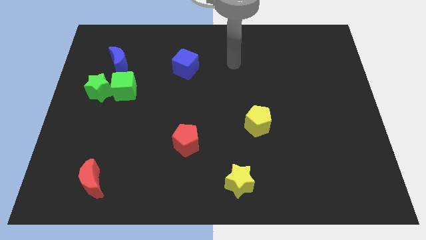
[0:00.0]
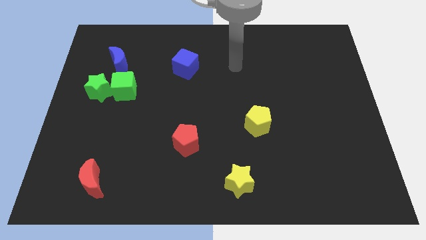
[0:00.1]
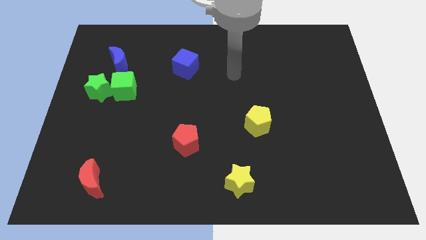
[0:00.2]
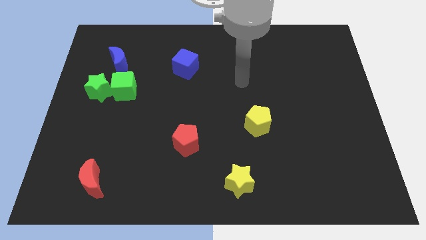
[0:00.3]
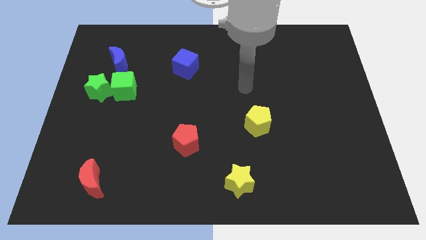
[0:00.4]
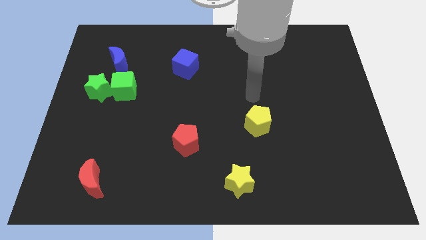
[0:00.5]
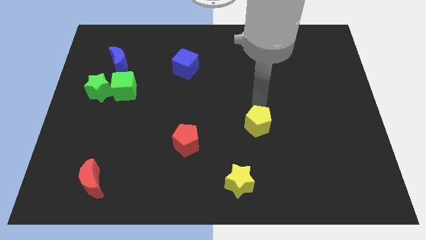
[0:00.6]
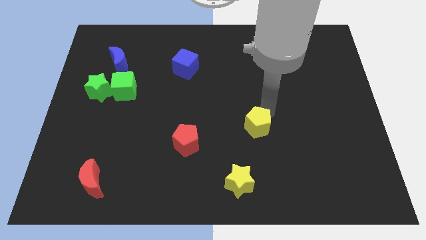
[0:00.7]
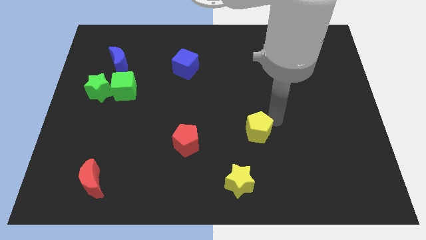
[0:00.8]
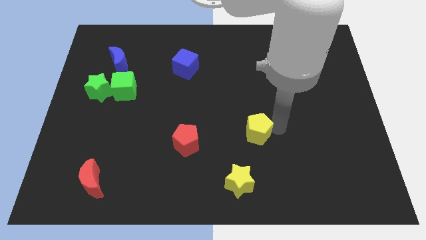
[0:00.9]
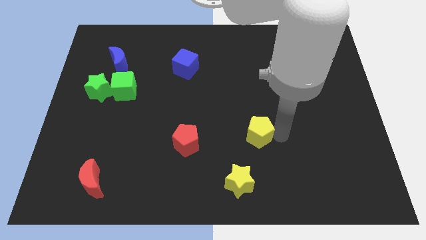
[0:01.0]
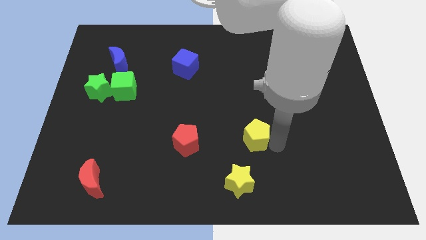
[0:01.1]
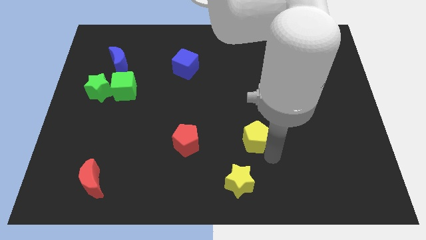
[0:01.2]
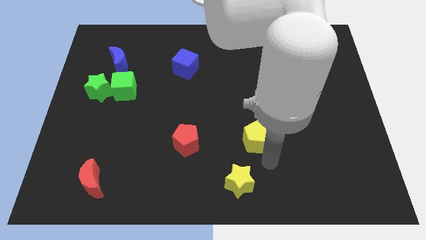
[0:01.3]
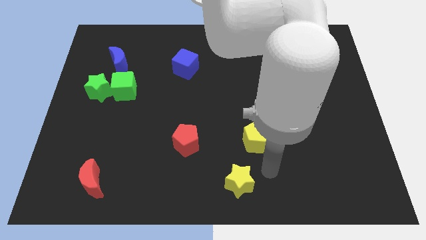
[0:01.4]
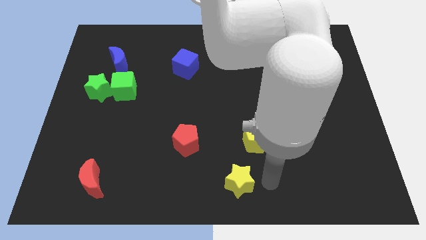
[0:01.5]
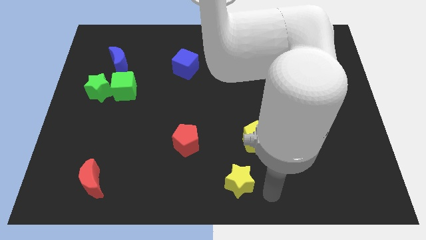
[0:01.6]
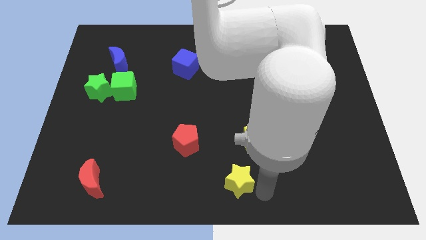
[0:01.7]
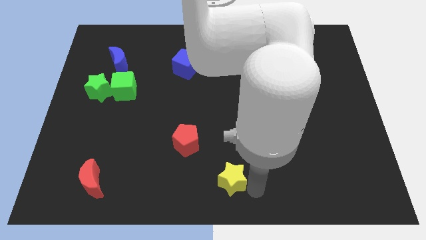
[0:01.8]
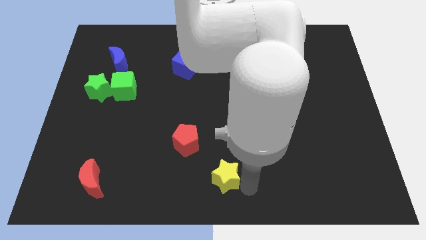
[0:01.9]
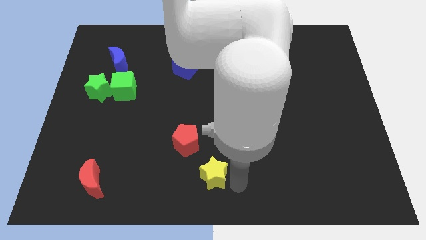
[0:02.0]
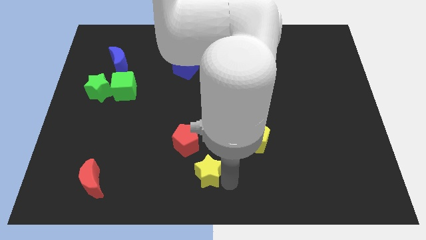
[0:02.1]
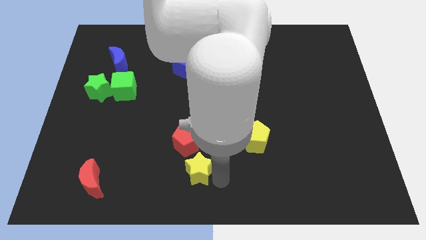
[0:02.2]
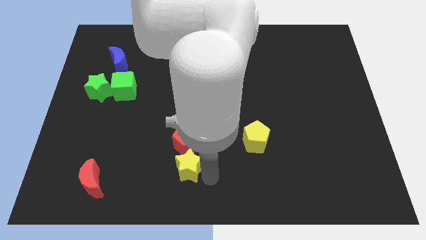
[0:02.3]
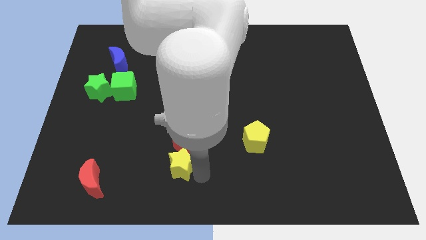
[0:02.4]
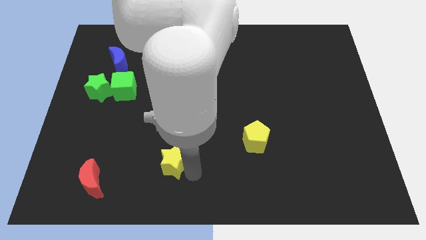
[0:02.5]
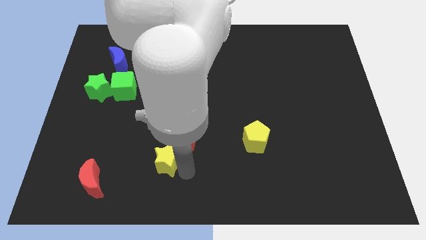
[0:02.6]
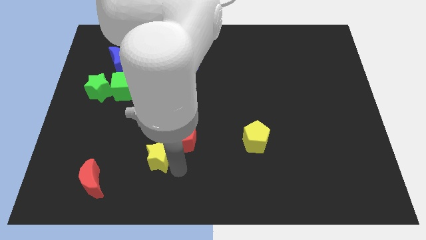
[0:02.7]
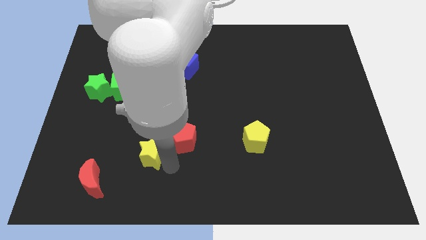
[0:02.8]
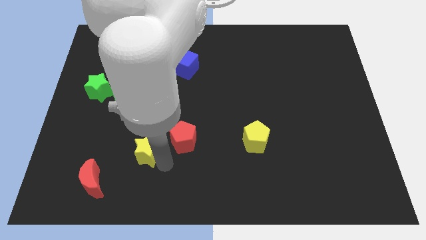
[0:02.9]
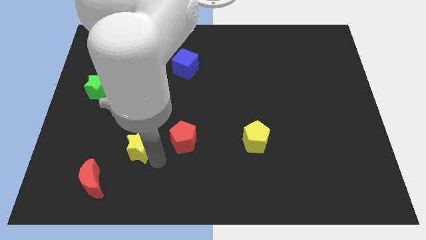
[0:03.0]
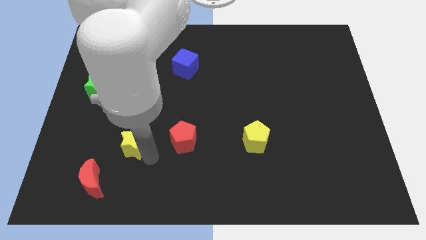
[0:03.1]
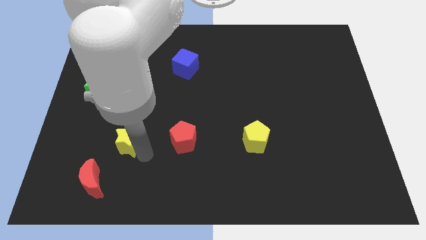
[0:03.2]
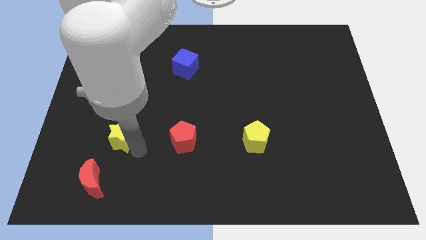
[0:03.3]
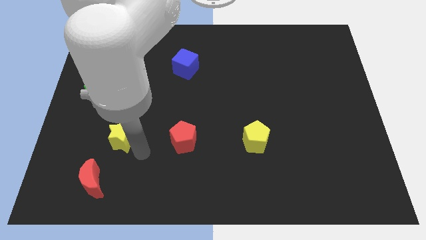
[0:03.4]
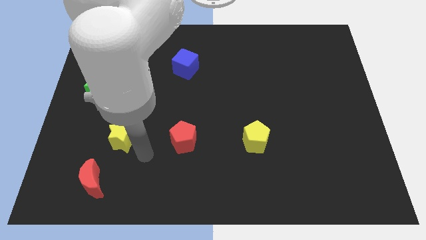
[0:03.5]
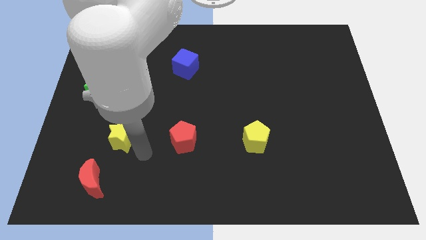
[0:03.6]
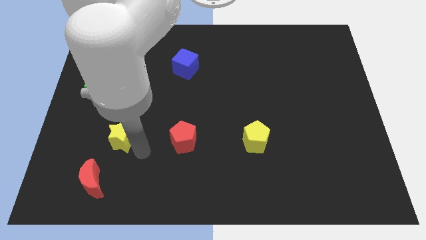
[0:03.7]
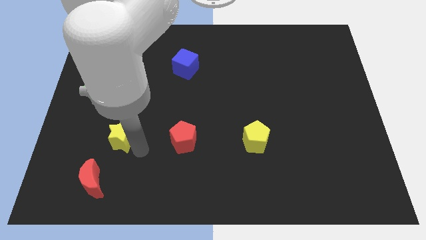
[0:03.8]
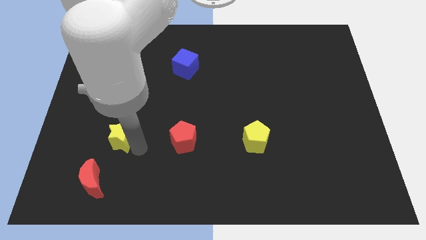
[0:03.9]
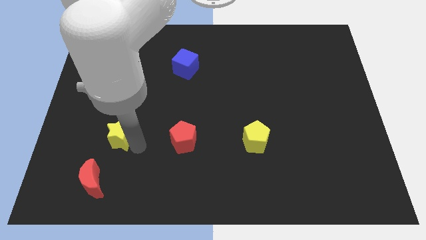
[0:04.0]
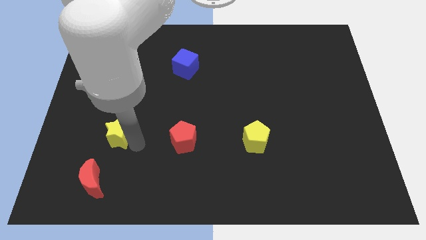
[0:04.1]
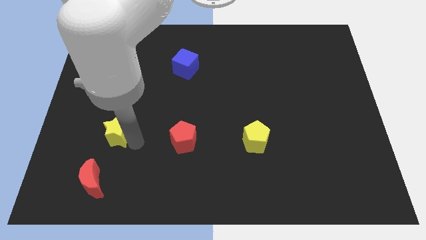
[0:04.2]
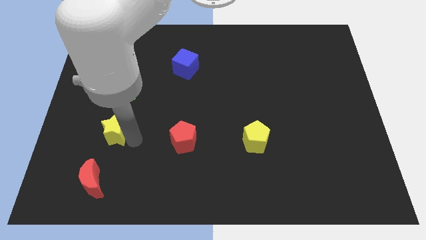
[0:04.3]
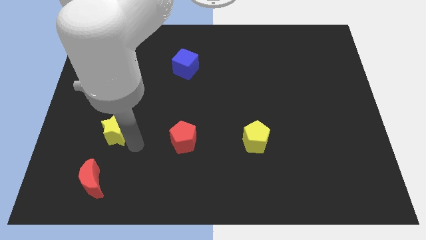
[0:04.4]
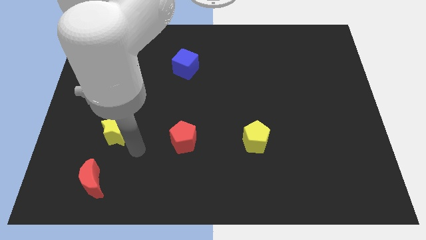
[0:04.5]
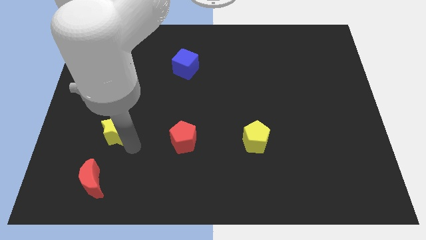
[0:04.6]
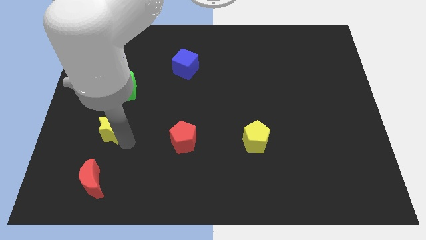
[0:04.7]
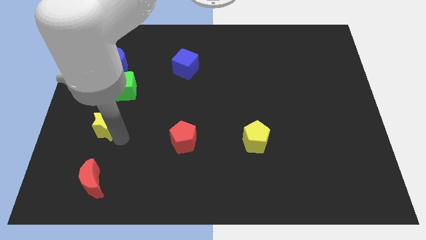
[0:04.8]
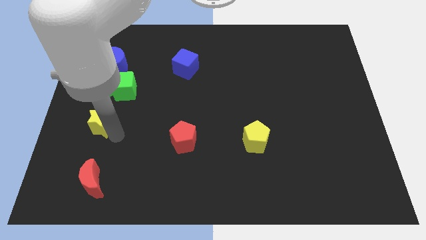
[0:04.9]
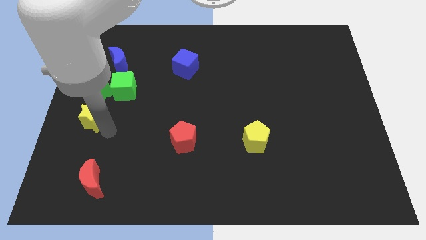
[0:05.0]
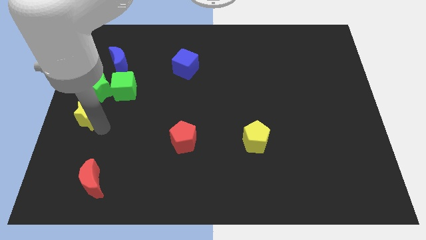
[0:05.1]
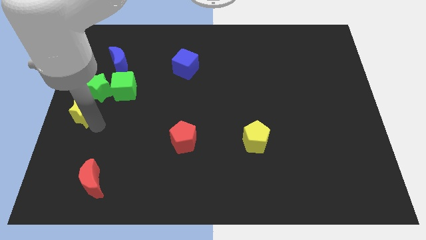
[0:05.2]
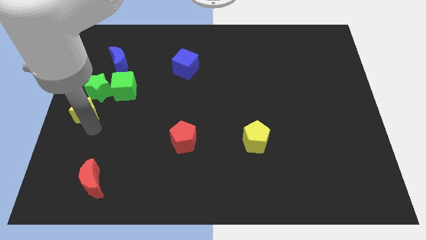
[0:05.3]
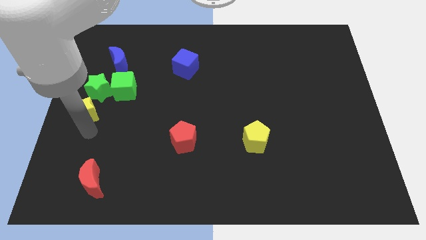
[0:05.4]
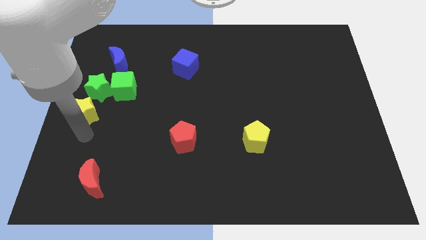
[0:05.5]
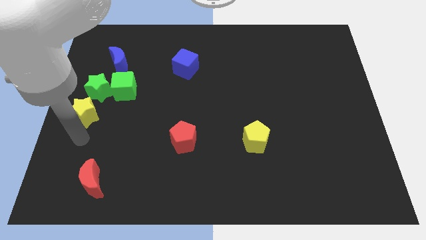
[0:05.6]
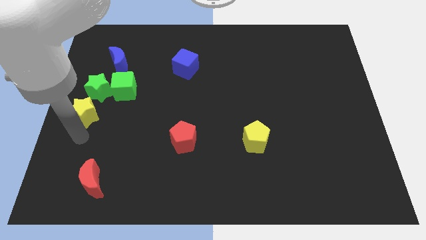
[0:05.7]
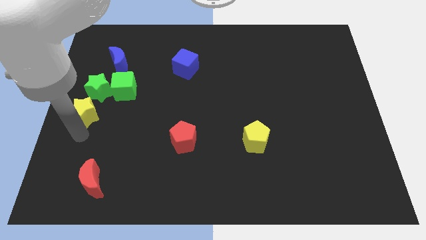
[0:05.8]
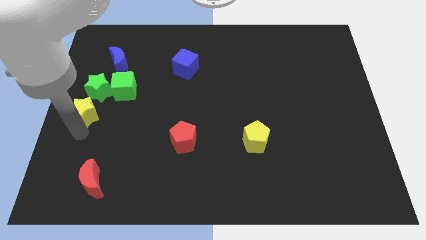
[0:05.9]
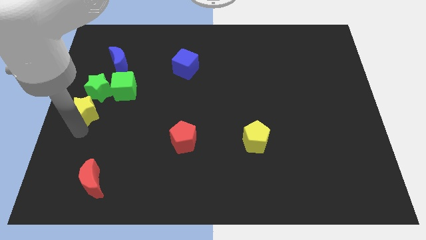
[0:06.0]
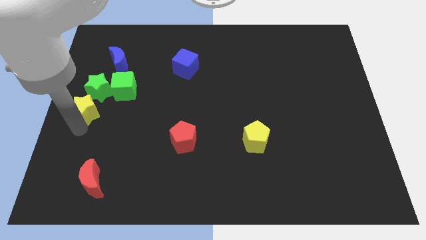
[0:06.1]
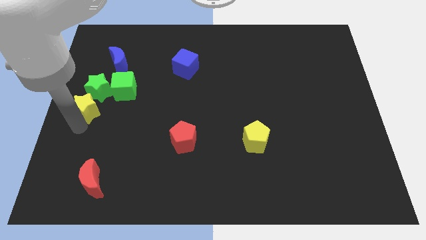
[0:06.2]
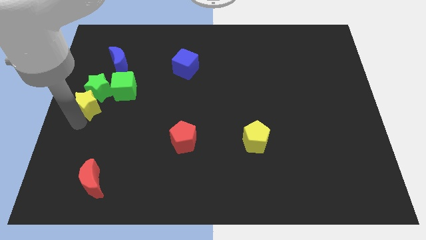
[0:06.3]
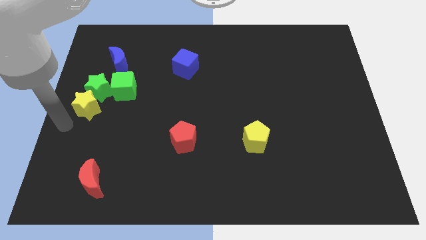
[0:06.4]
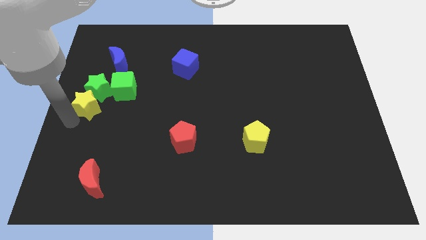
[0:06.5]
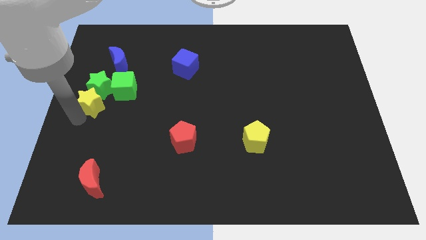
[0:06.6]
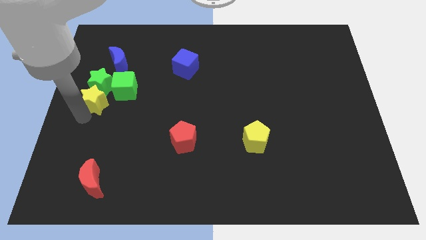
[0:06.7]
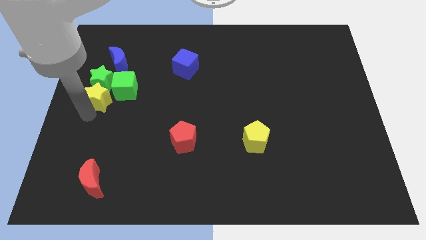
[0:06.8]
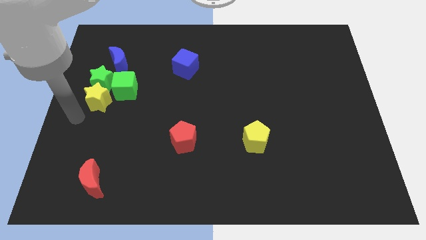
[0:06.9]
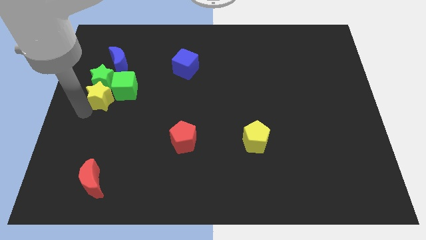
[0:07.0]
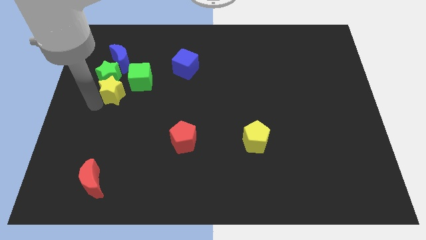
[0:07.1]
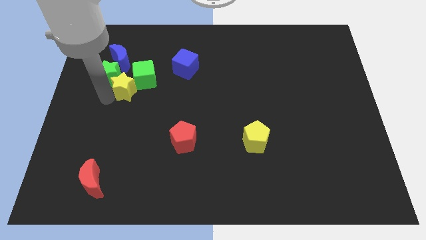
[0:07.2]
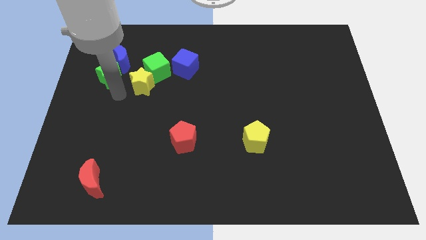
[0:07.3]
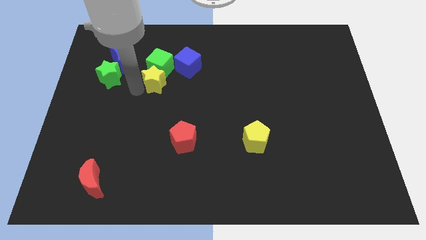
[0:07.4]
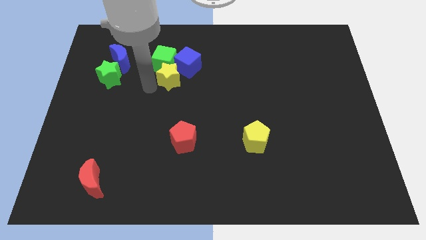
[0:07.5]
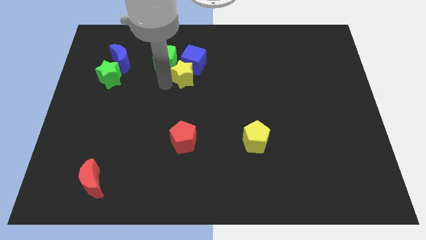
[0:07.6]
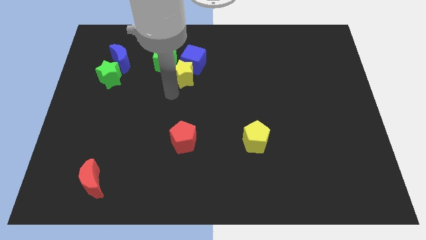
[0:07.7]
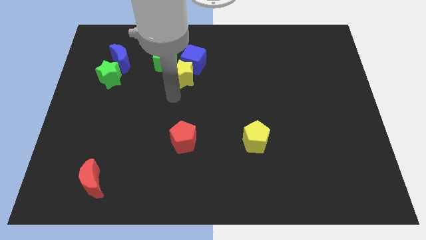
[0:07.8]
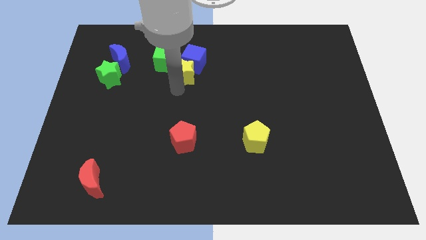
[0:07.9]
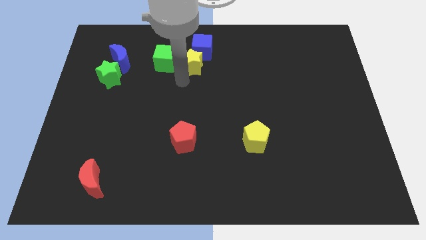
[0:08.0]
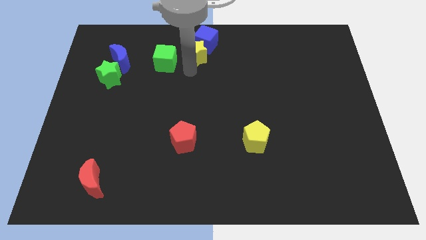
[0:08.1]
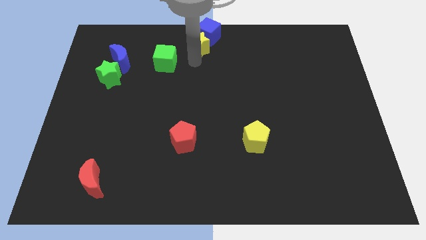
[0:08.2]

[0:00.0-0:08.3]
push the yellow star to the towards your base
